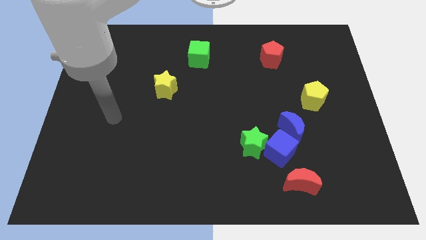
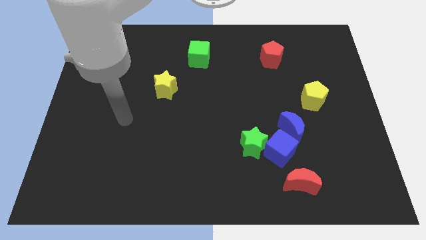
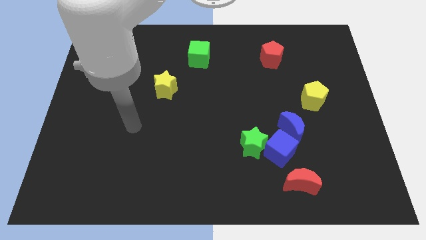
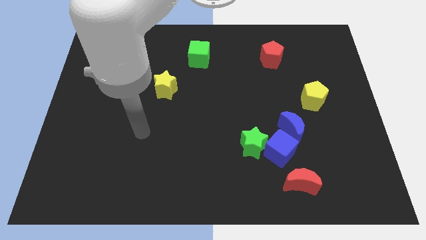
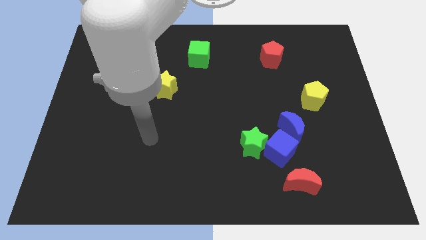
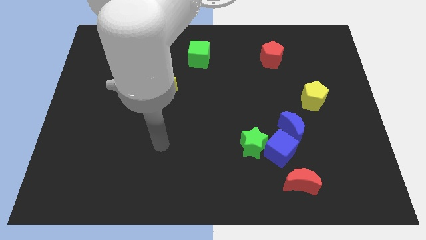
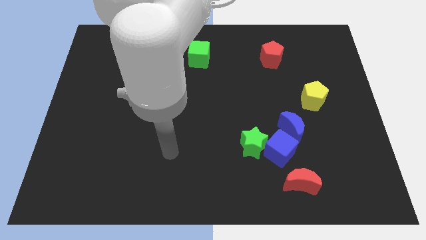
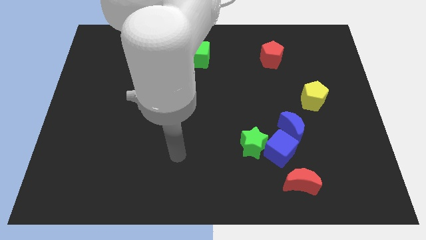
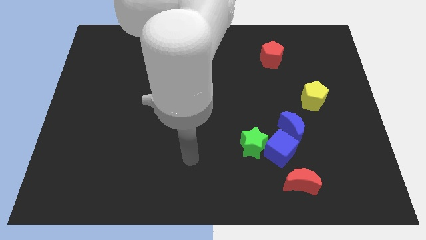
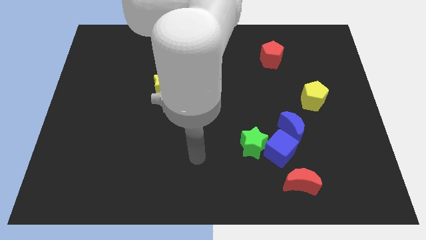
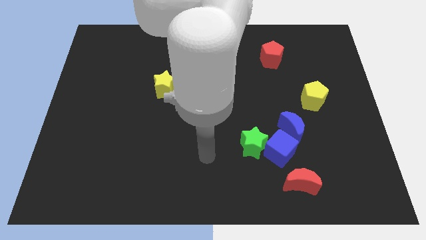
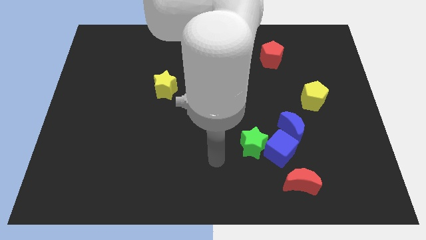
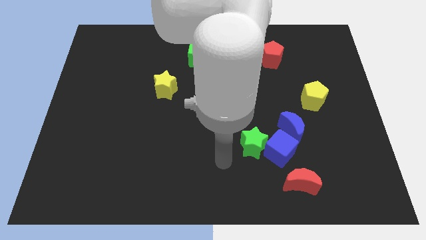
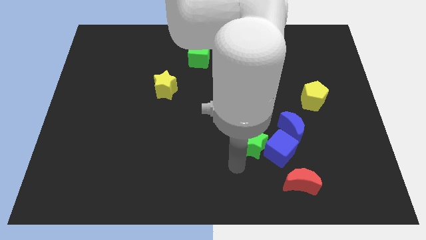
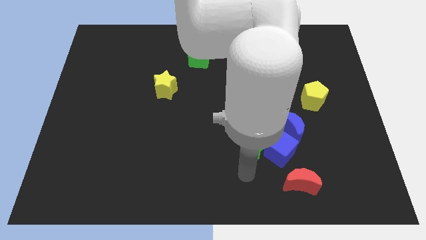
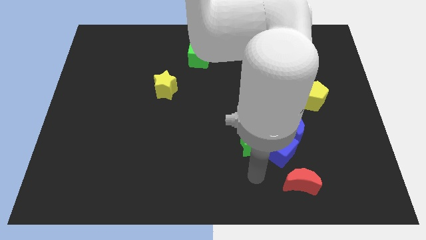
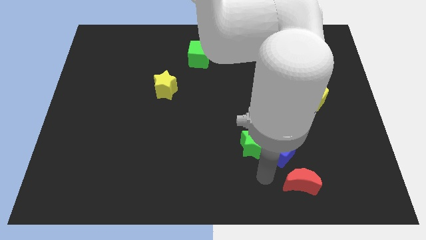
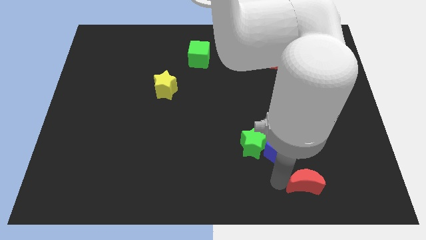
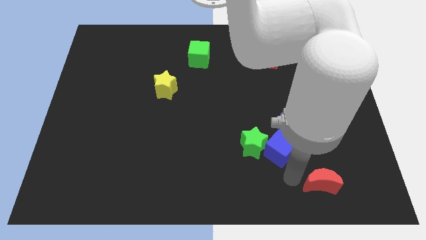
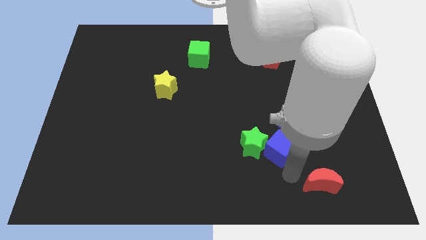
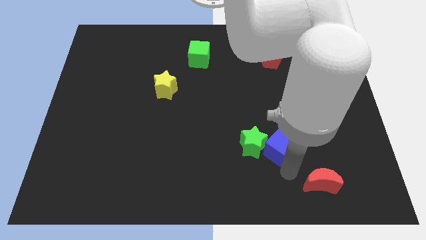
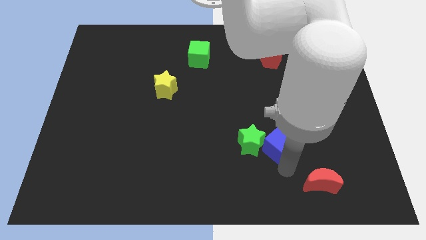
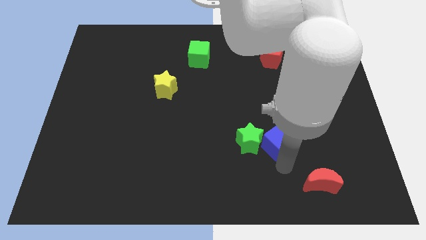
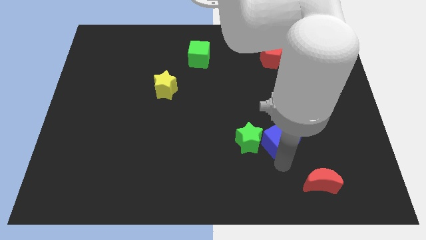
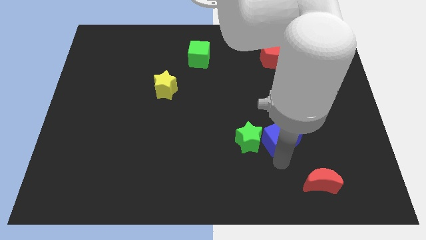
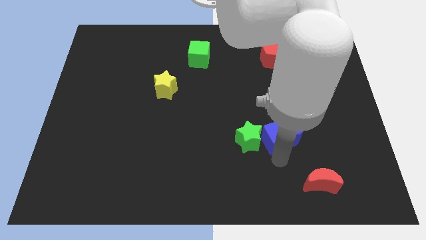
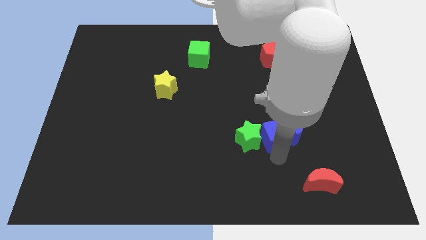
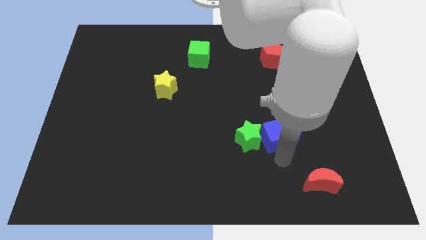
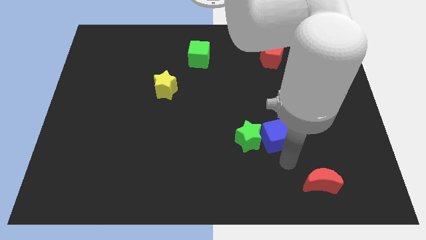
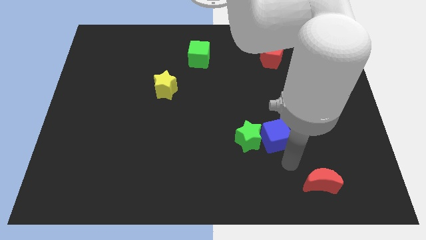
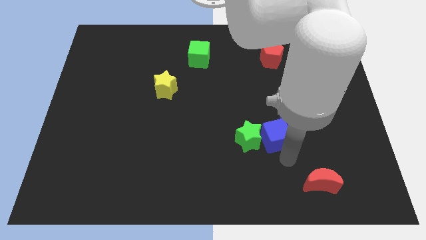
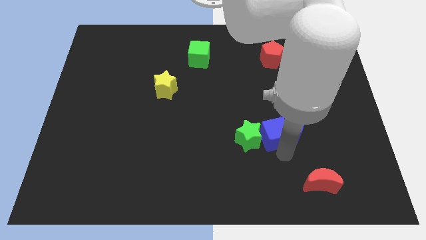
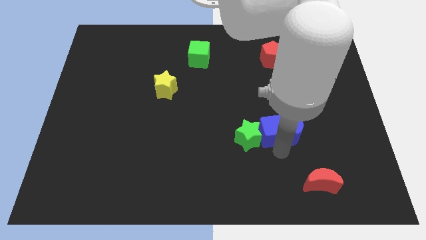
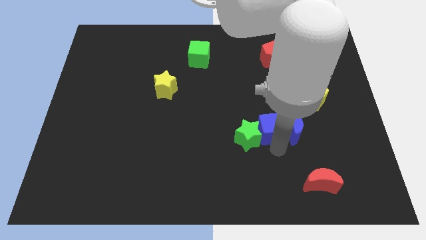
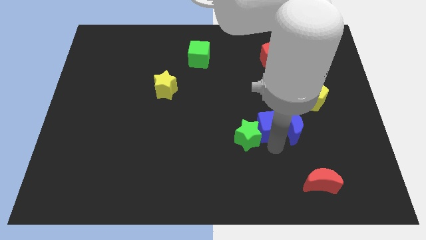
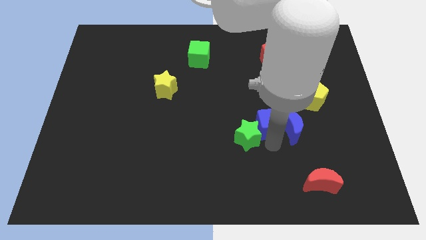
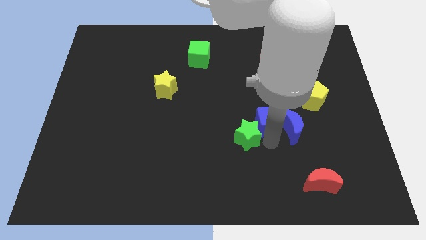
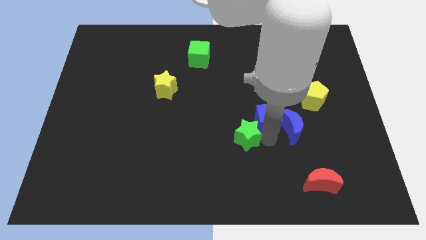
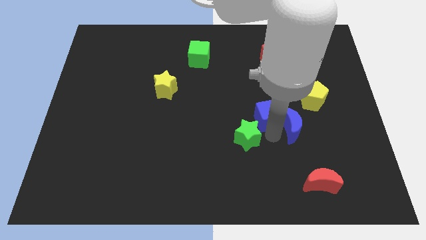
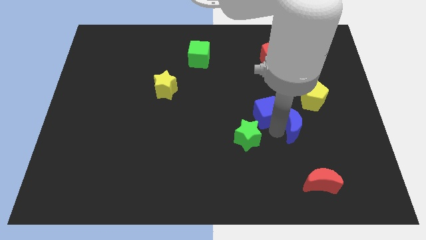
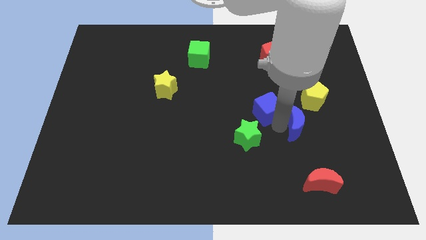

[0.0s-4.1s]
move the blue cube away from the group

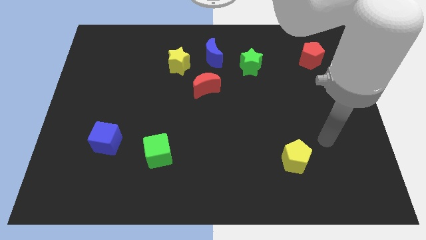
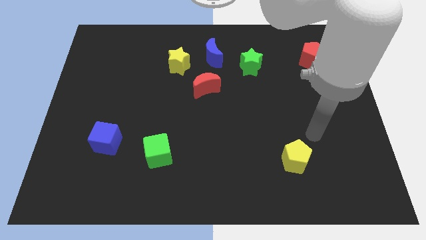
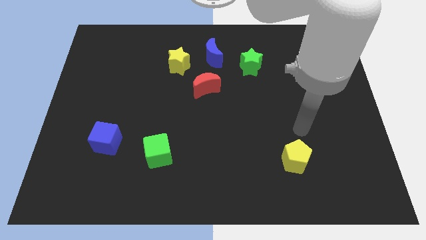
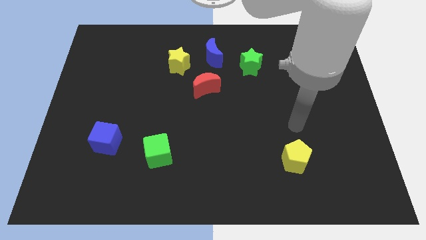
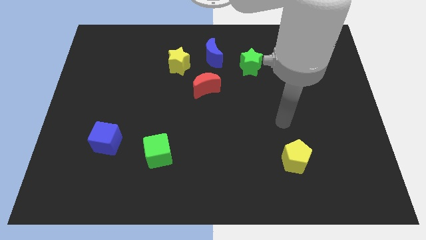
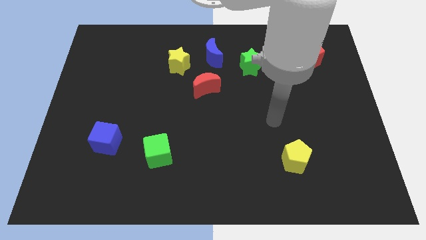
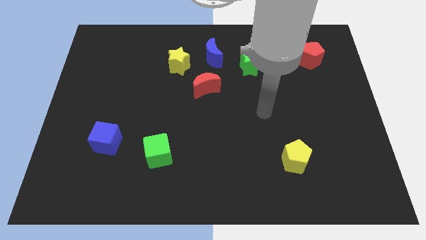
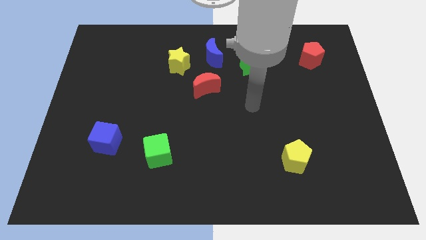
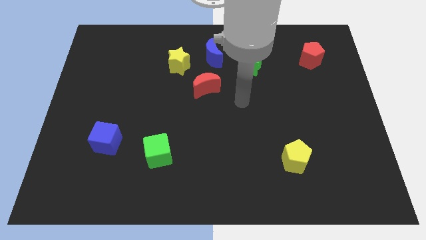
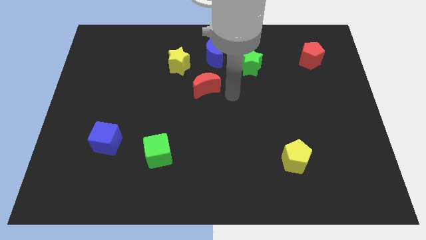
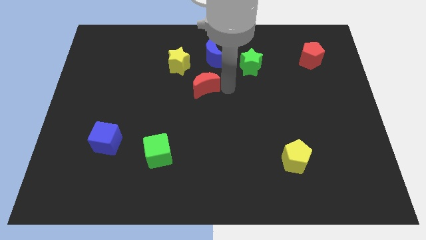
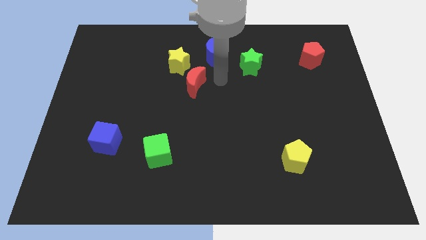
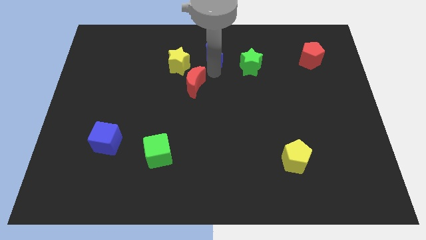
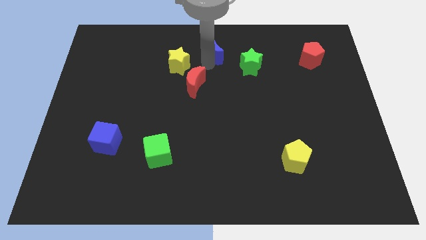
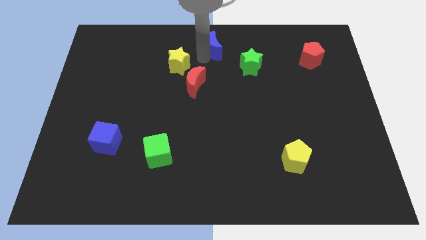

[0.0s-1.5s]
move the yellow star away from the blue moon

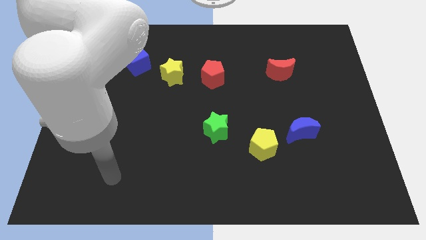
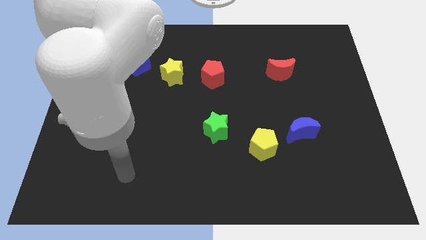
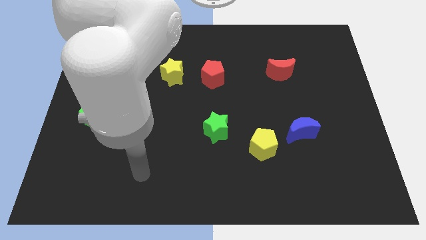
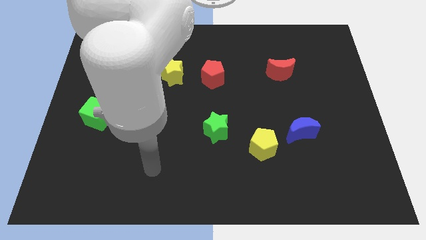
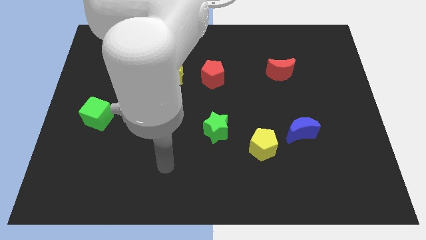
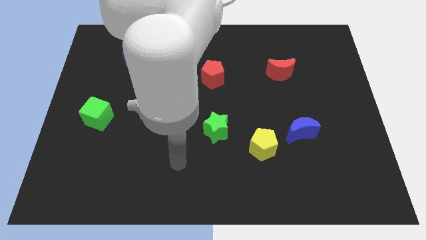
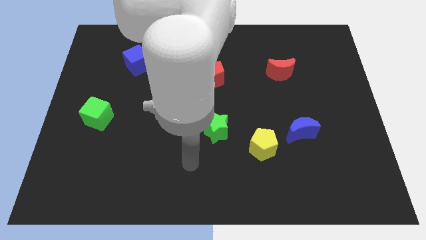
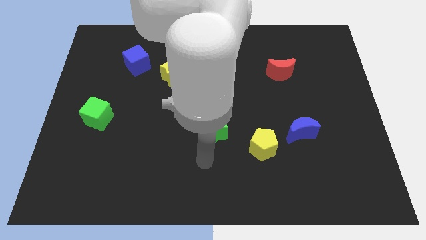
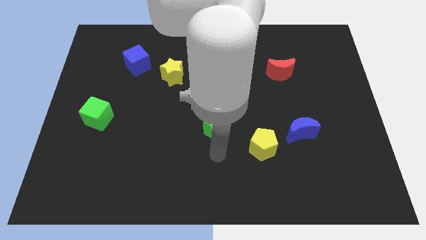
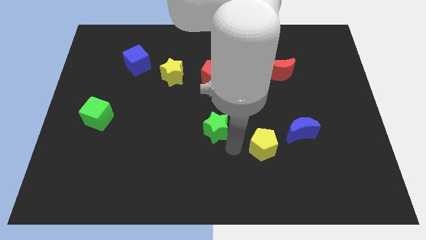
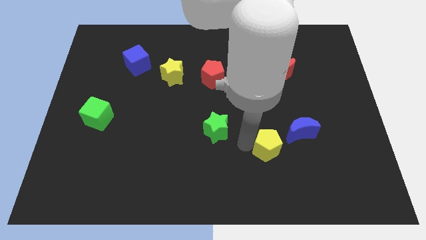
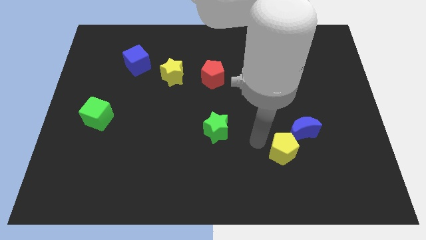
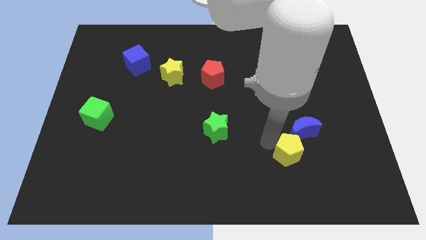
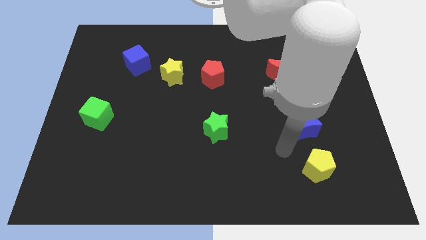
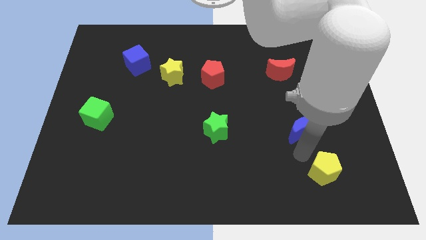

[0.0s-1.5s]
move the blue moon away from the yellow pentagon

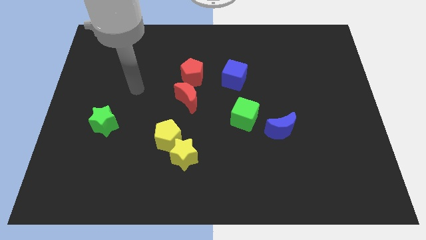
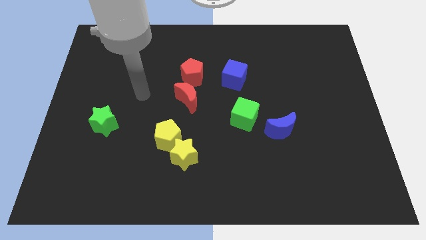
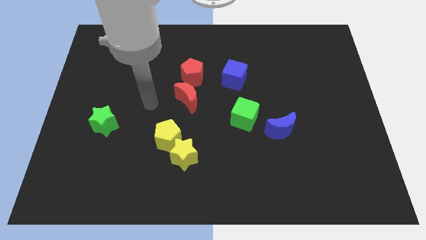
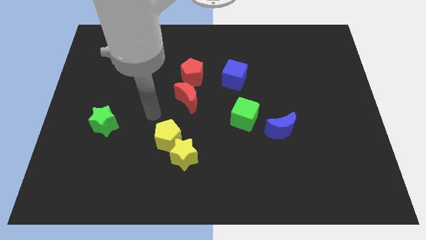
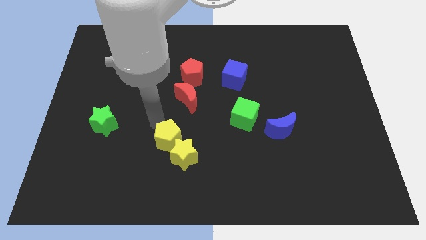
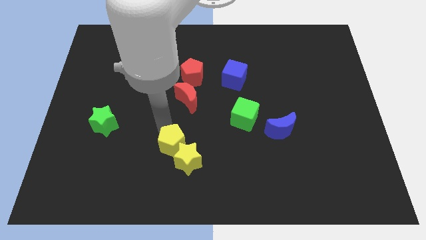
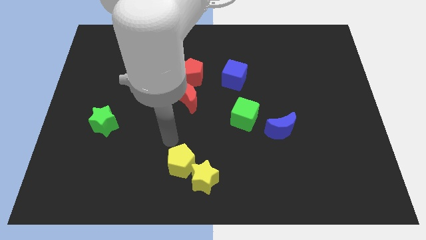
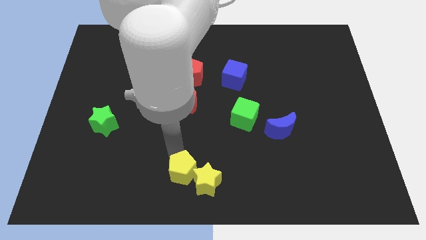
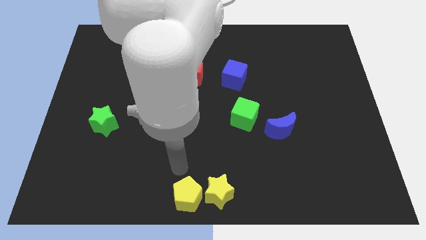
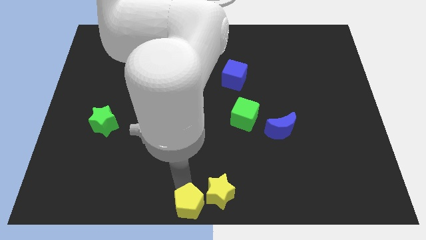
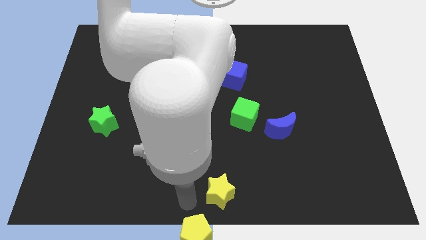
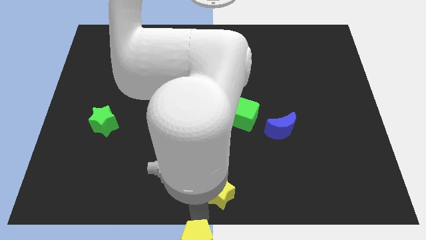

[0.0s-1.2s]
move the yellow star away from the yellow pentagon

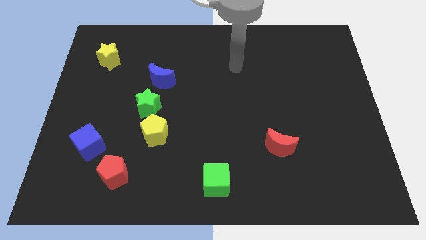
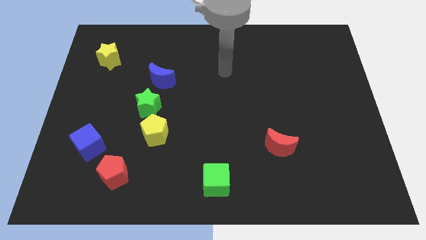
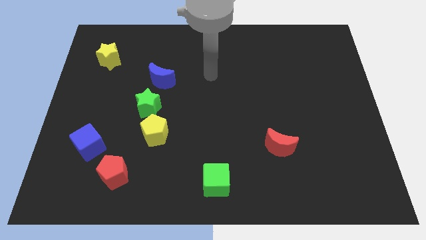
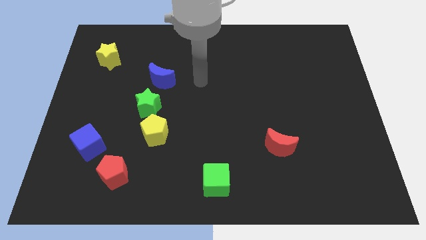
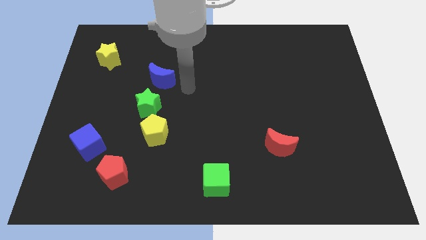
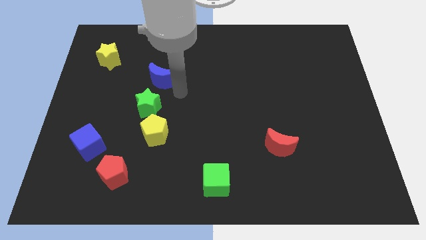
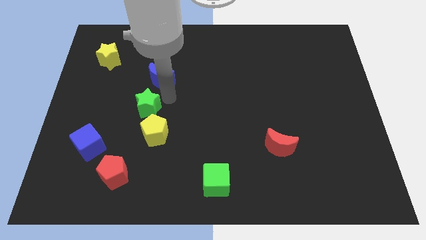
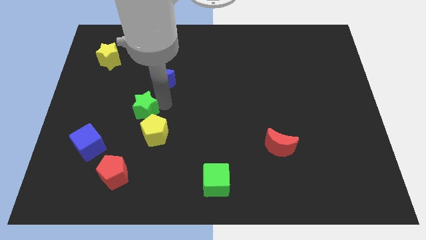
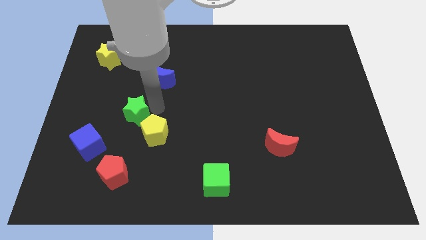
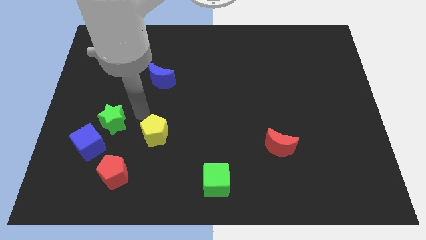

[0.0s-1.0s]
move the yellow pentagon away from the green star
